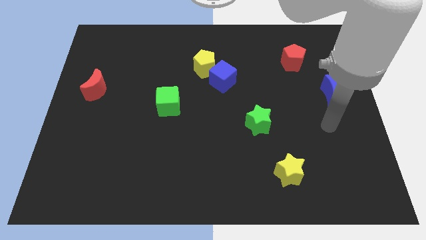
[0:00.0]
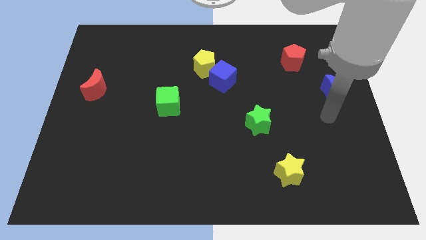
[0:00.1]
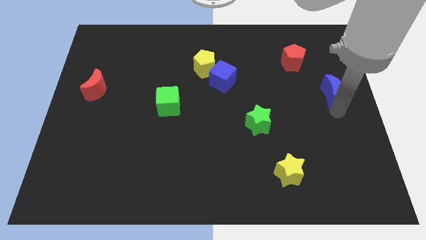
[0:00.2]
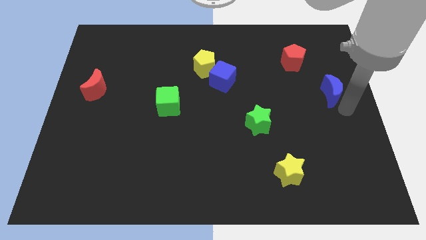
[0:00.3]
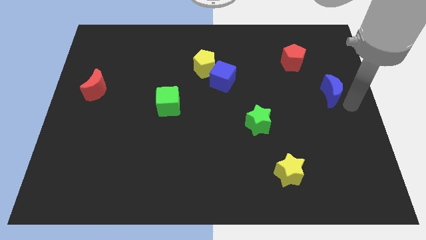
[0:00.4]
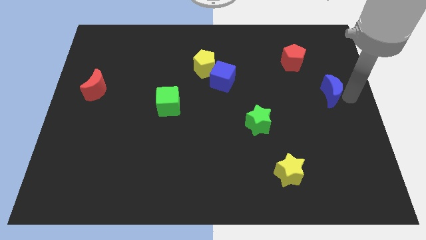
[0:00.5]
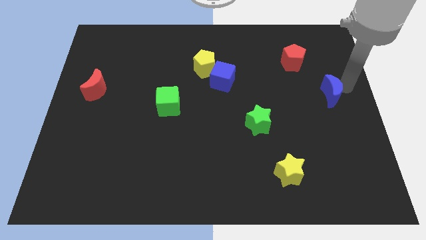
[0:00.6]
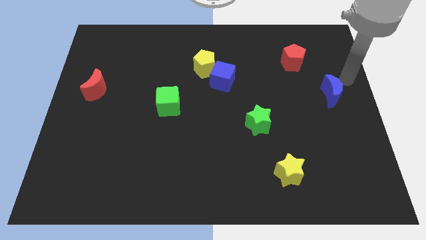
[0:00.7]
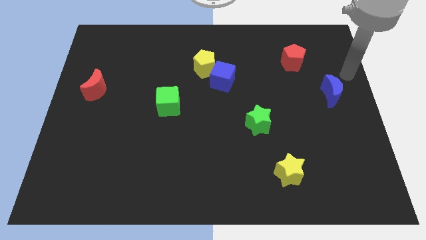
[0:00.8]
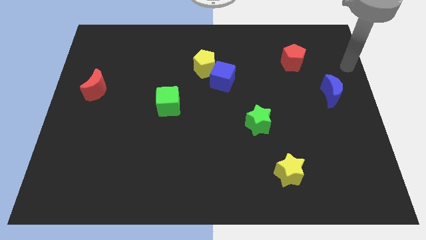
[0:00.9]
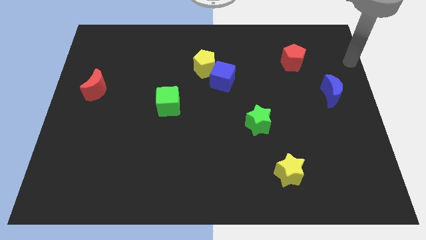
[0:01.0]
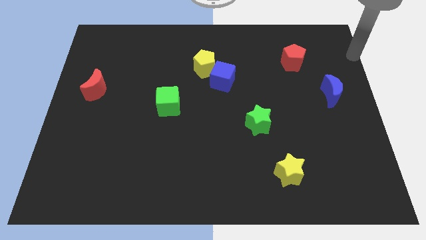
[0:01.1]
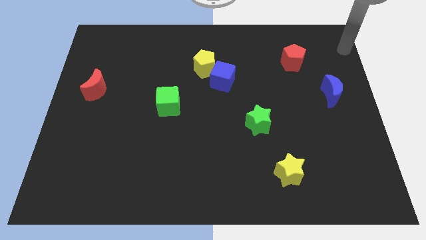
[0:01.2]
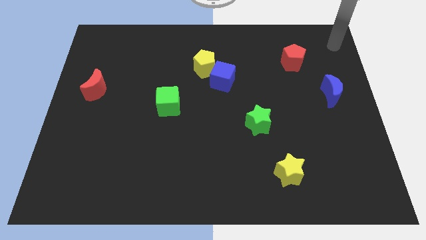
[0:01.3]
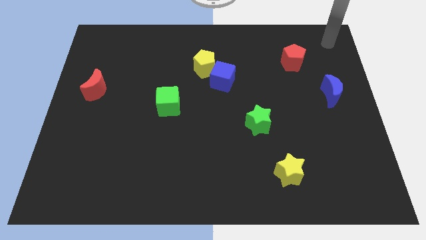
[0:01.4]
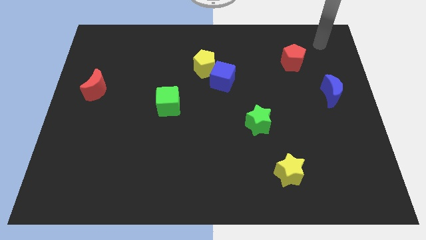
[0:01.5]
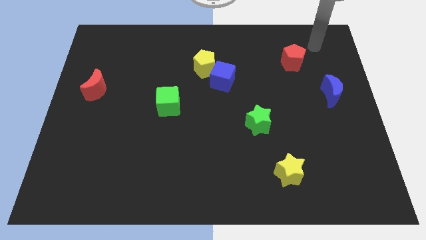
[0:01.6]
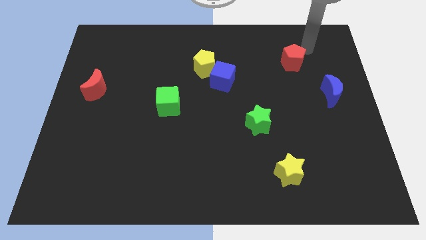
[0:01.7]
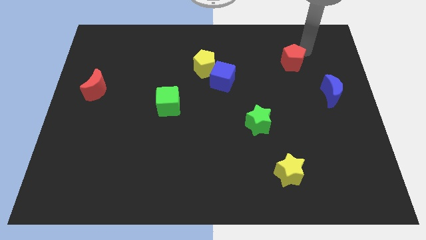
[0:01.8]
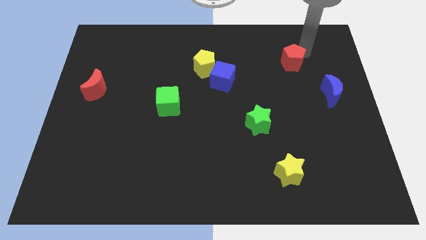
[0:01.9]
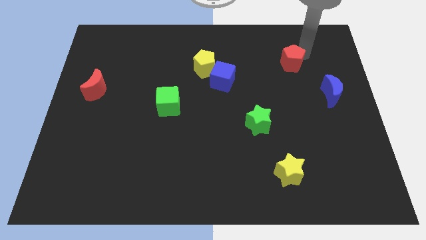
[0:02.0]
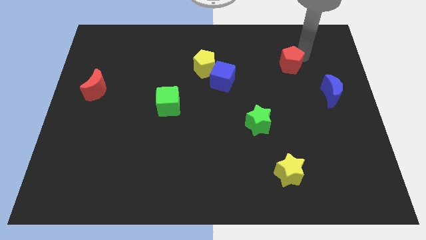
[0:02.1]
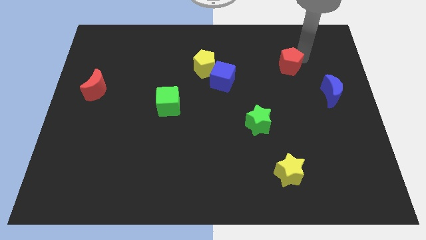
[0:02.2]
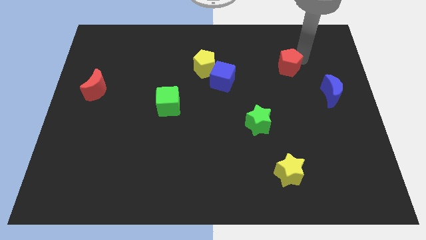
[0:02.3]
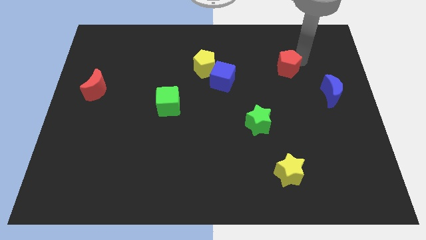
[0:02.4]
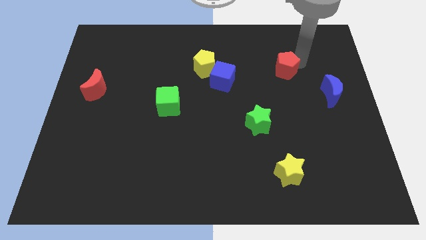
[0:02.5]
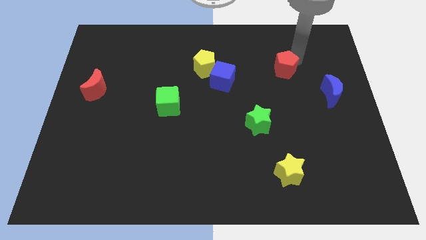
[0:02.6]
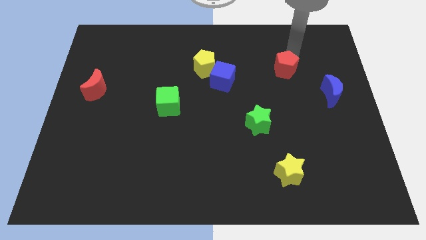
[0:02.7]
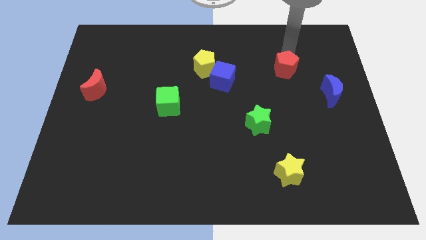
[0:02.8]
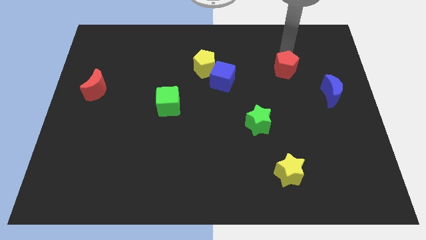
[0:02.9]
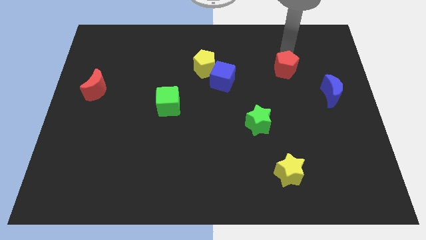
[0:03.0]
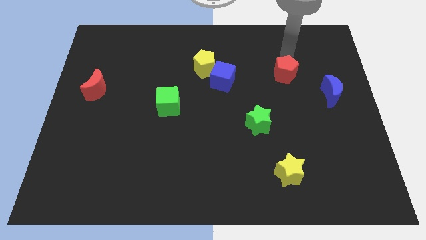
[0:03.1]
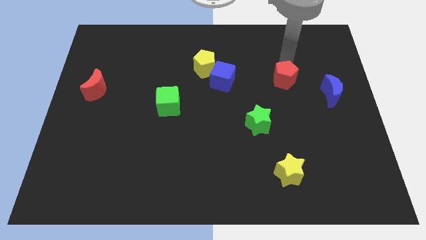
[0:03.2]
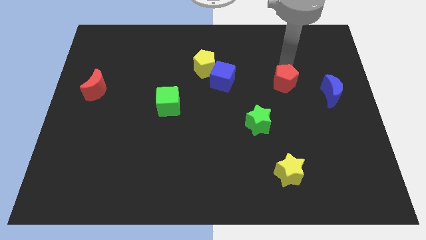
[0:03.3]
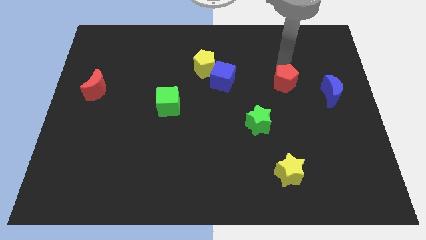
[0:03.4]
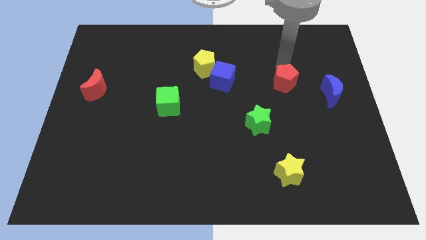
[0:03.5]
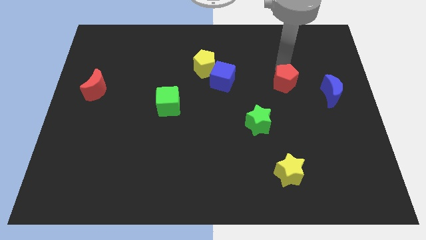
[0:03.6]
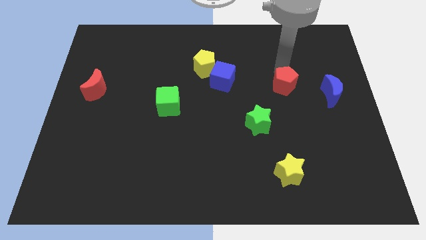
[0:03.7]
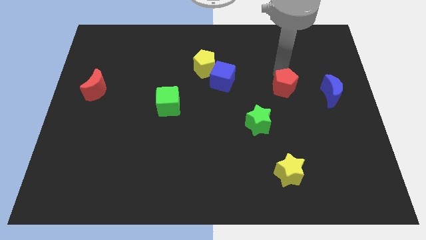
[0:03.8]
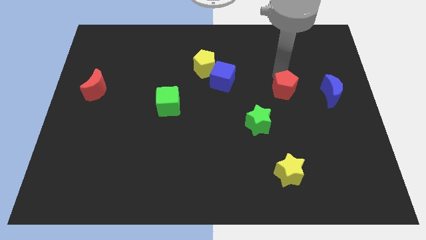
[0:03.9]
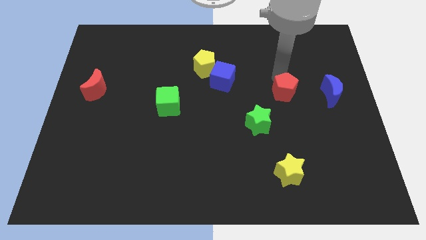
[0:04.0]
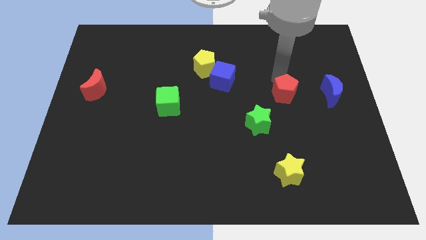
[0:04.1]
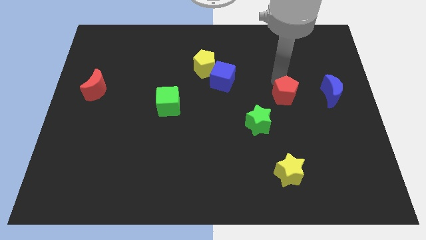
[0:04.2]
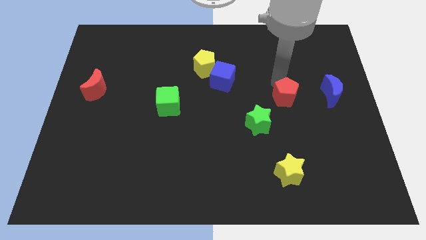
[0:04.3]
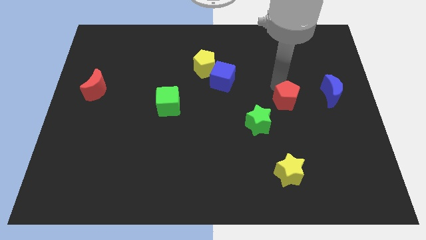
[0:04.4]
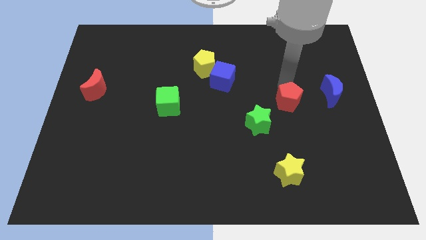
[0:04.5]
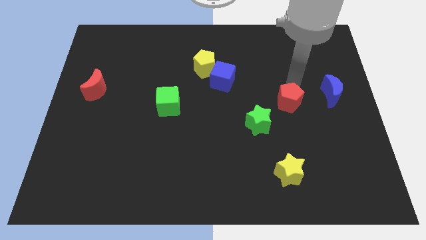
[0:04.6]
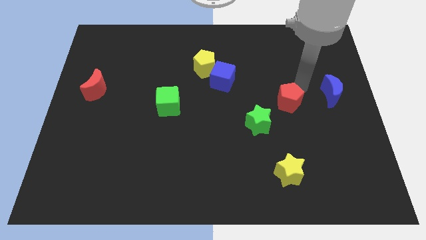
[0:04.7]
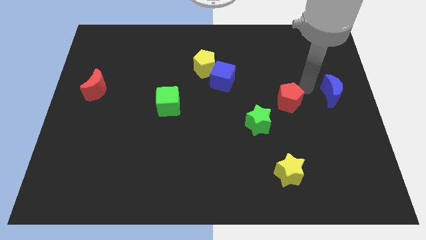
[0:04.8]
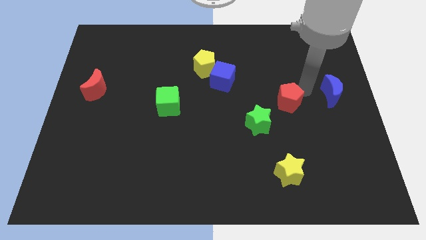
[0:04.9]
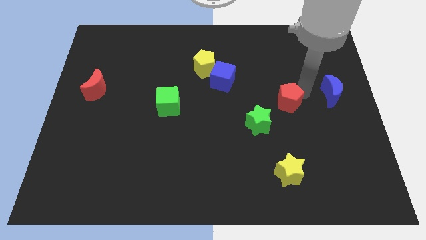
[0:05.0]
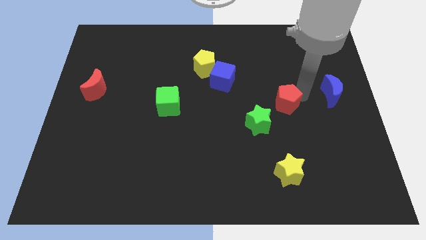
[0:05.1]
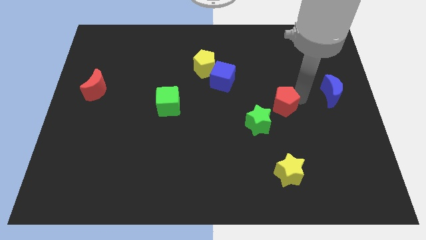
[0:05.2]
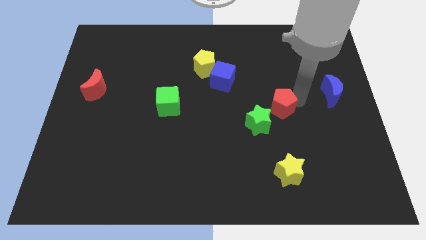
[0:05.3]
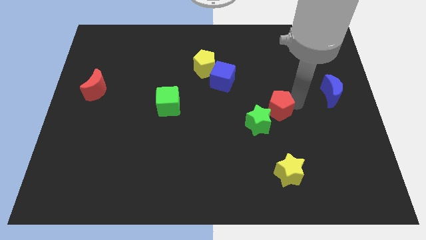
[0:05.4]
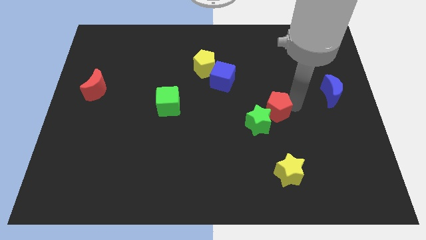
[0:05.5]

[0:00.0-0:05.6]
slide the red pentagon to the green star

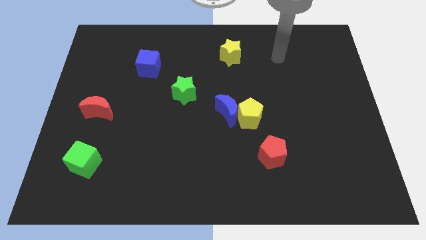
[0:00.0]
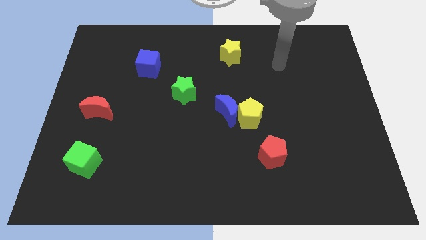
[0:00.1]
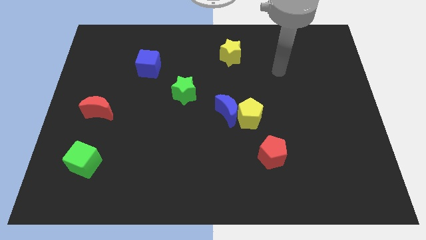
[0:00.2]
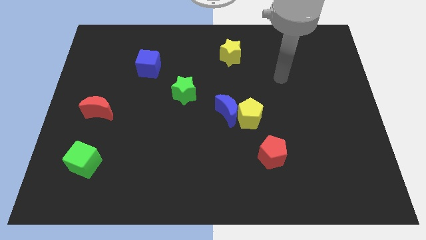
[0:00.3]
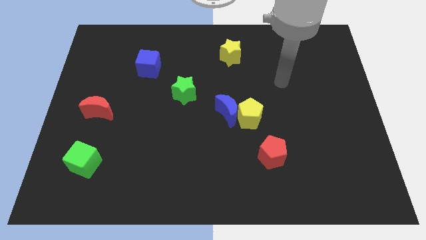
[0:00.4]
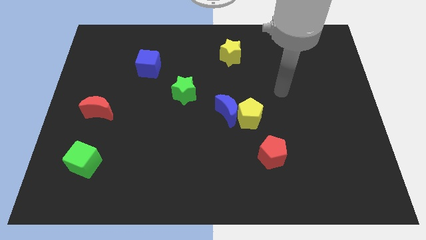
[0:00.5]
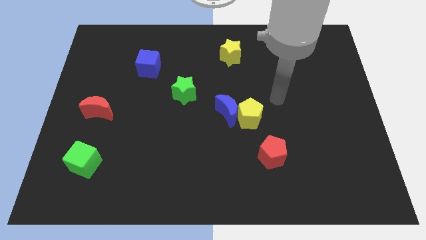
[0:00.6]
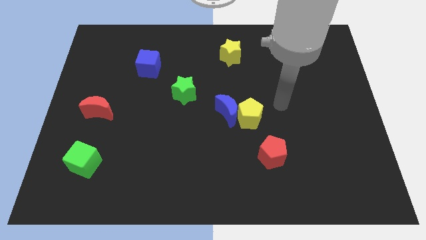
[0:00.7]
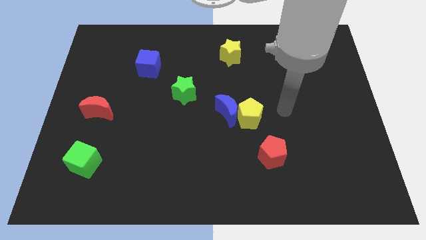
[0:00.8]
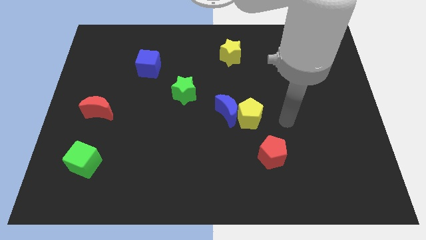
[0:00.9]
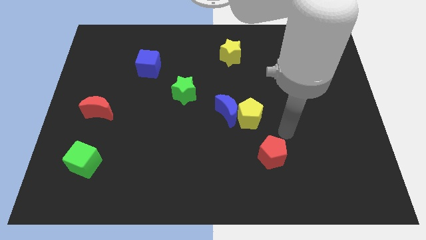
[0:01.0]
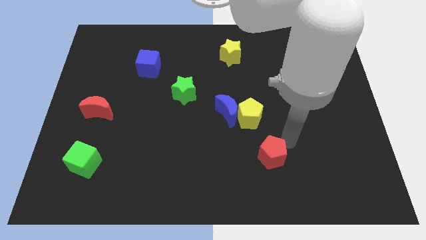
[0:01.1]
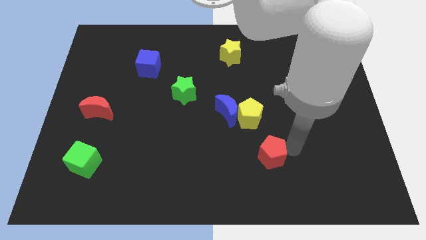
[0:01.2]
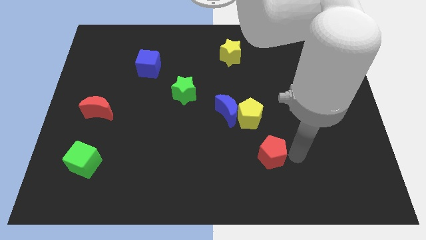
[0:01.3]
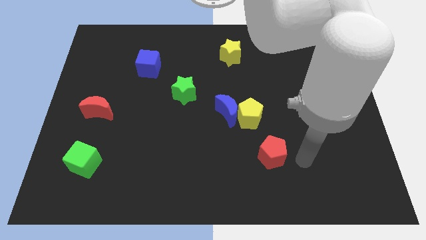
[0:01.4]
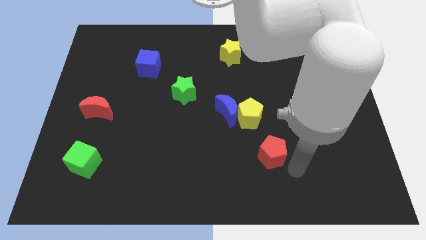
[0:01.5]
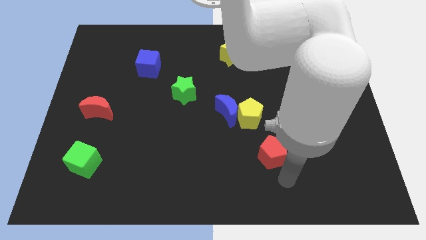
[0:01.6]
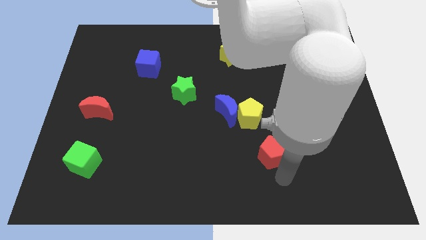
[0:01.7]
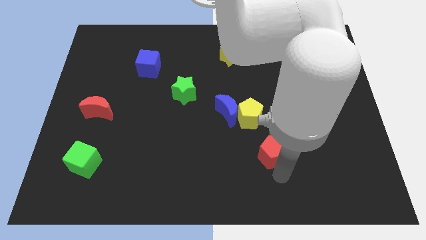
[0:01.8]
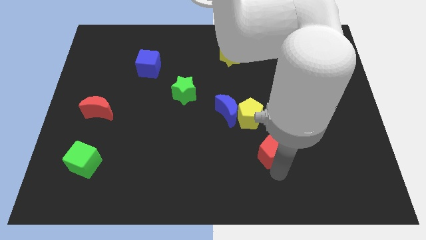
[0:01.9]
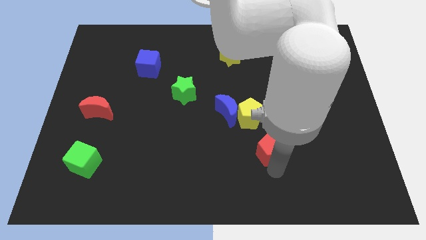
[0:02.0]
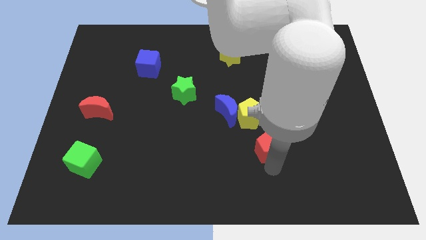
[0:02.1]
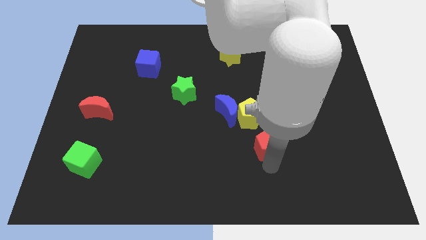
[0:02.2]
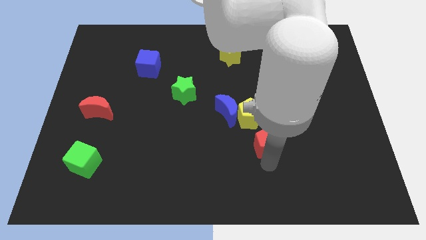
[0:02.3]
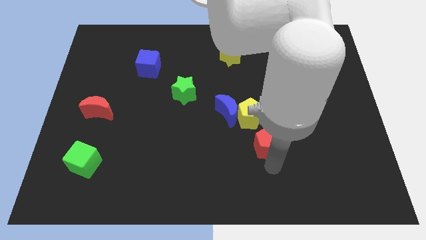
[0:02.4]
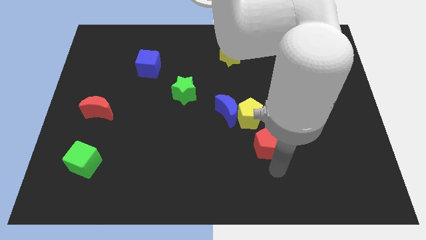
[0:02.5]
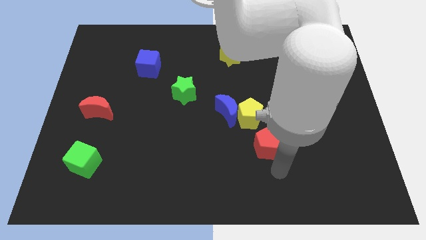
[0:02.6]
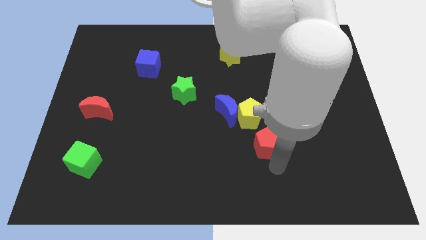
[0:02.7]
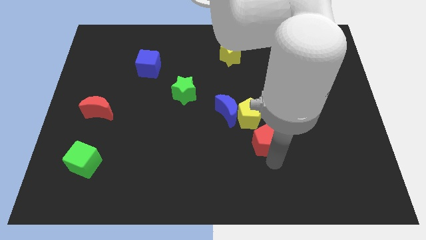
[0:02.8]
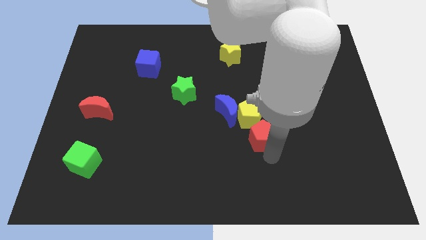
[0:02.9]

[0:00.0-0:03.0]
slide the red pentagon to the yellow pentagon
